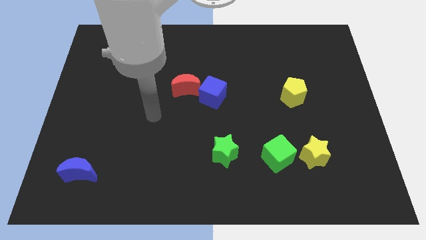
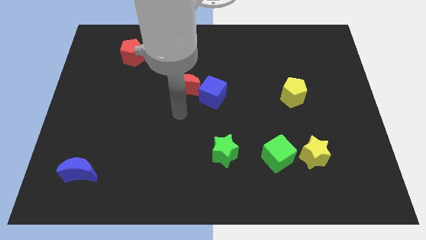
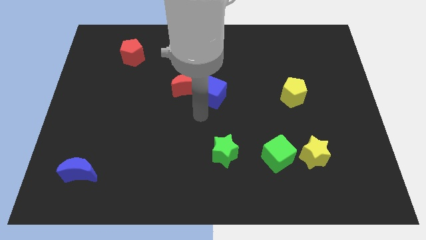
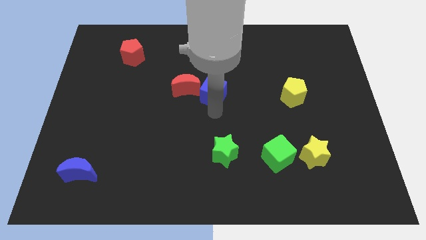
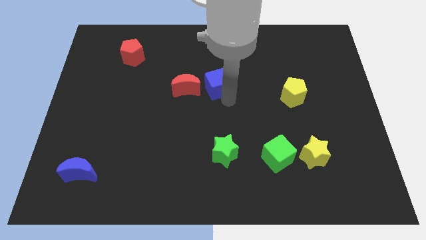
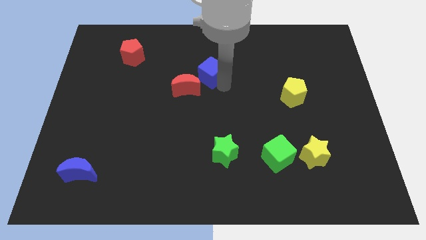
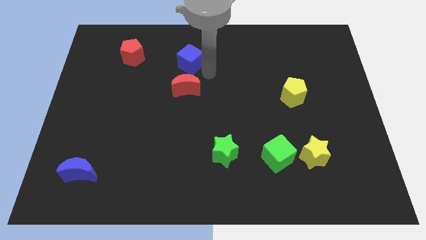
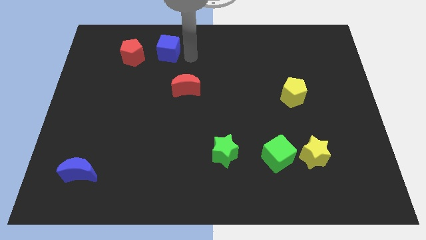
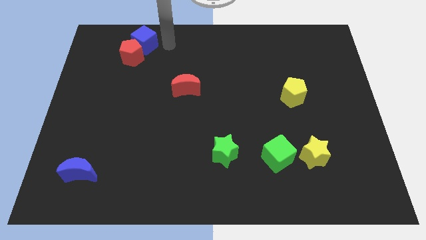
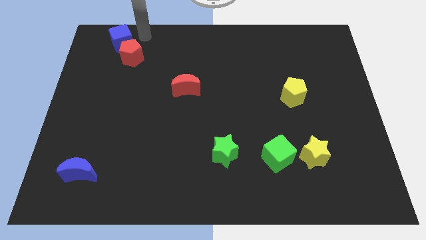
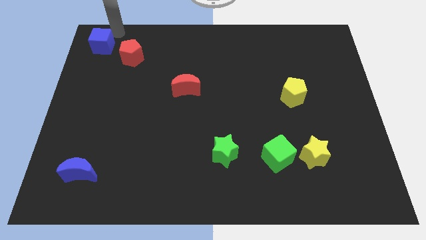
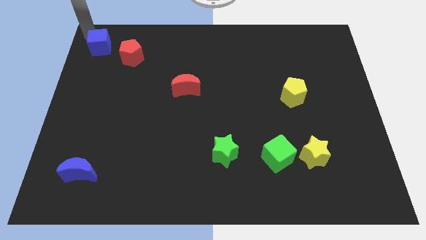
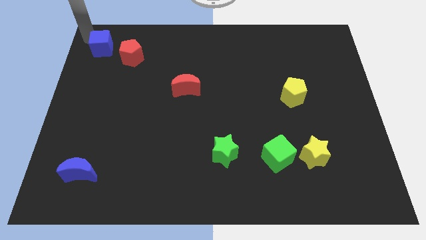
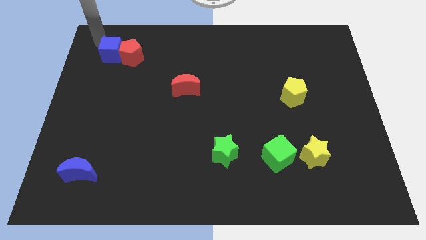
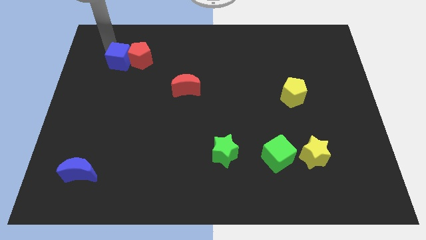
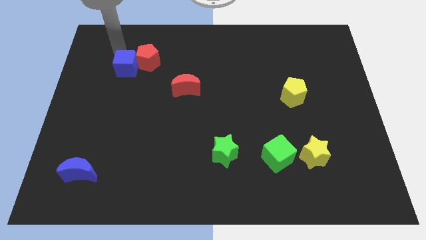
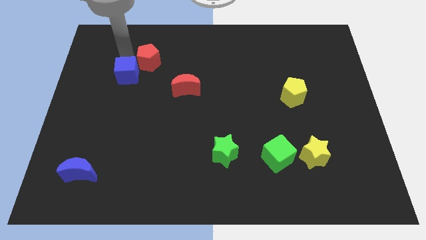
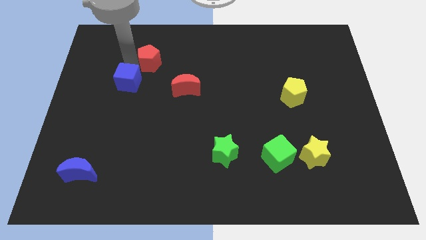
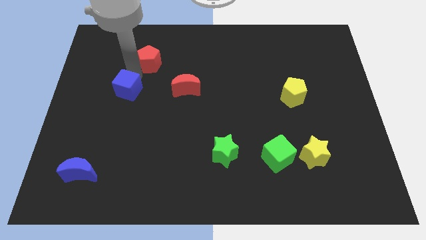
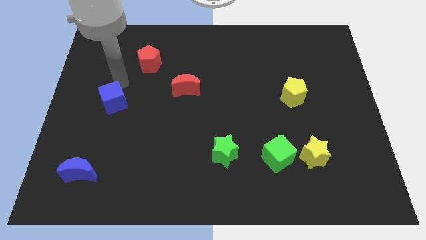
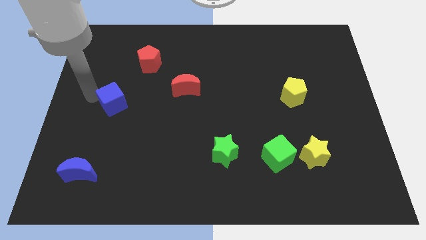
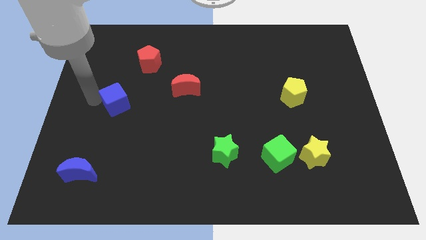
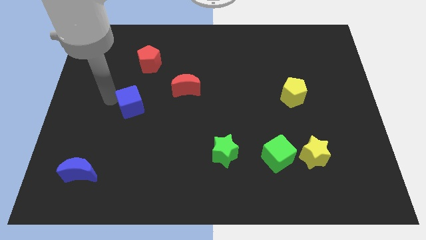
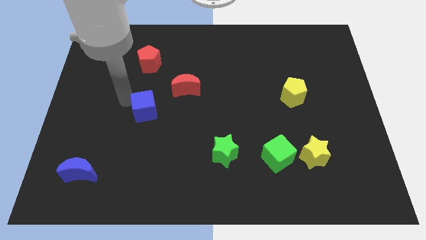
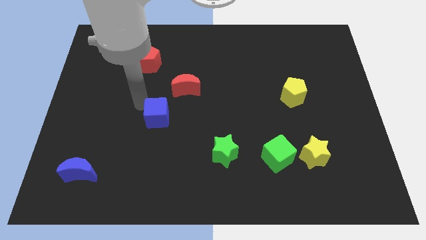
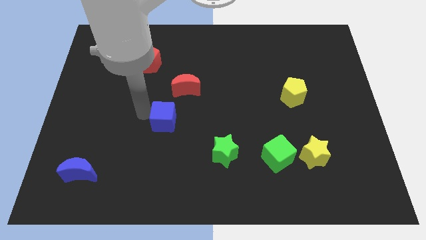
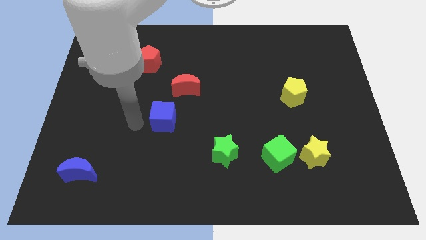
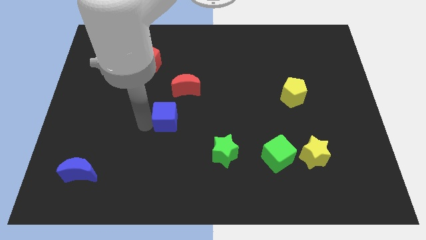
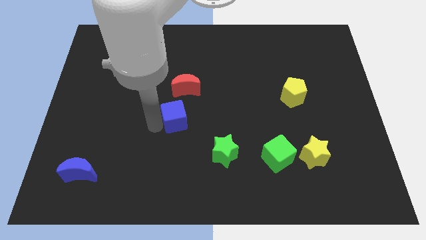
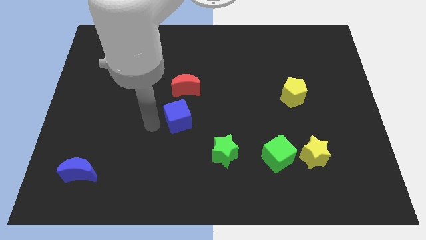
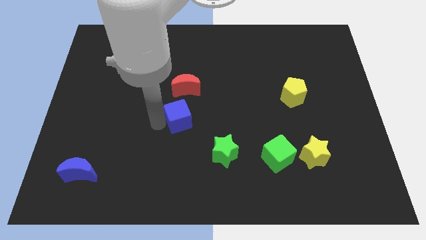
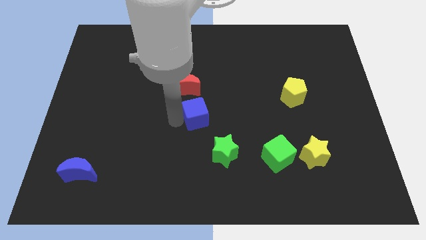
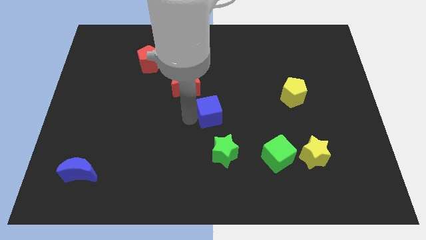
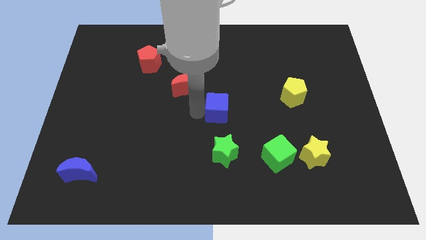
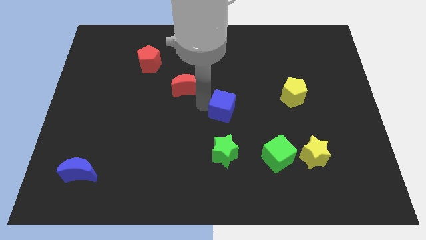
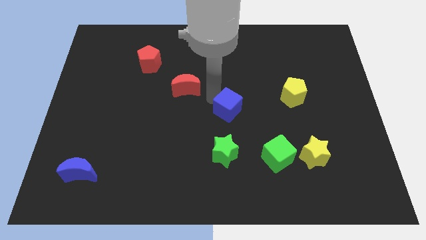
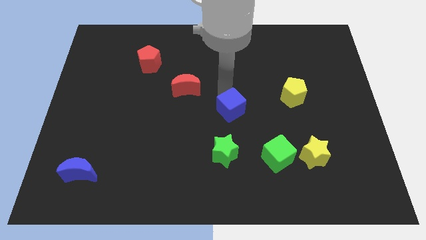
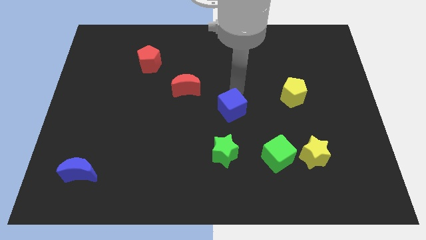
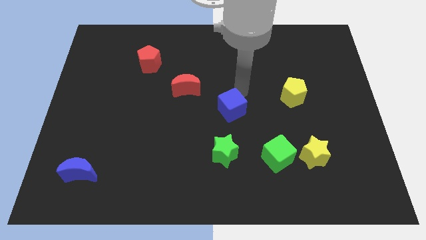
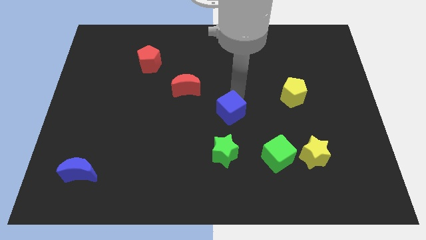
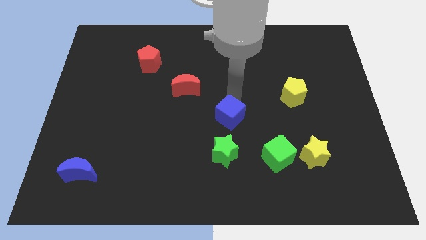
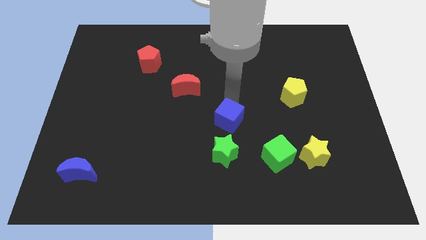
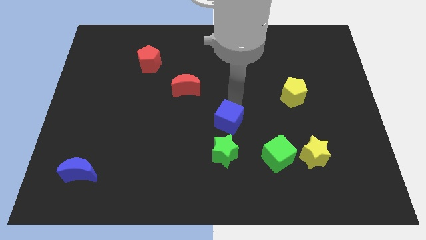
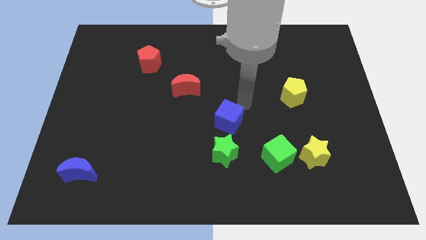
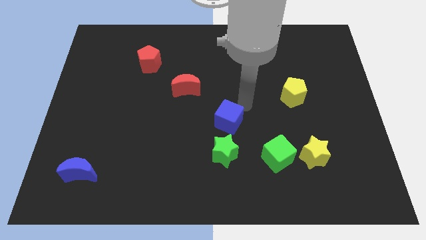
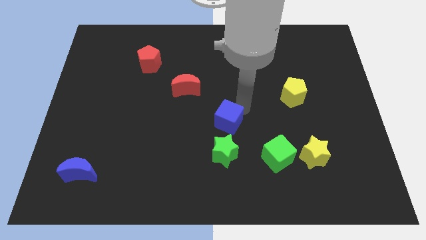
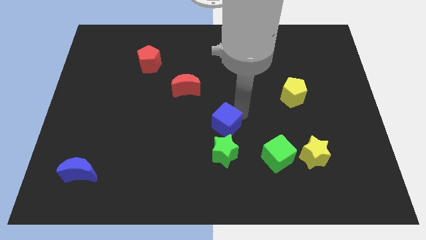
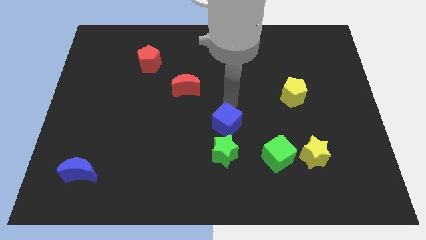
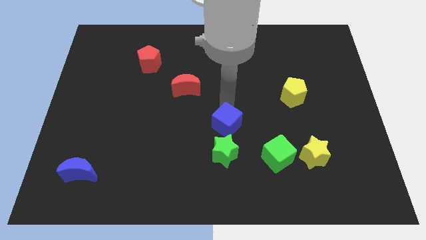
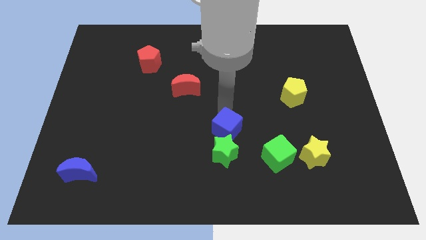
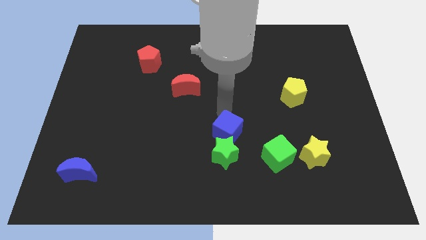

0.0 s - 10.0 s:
move the blue cube next to the green star

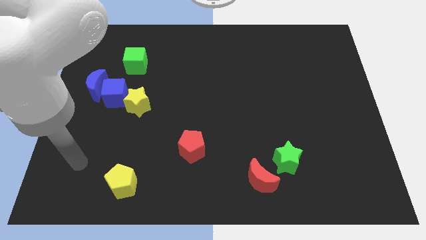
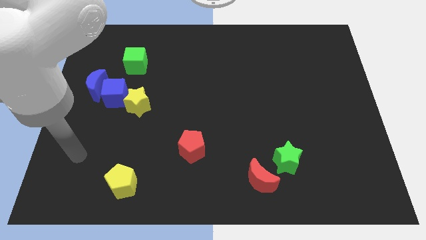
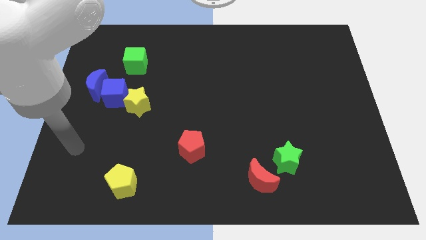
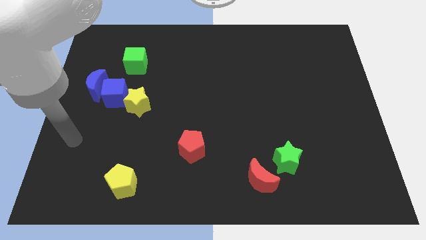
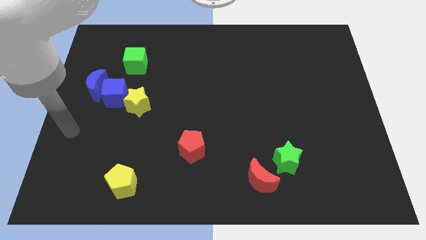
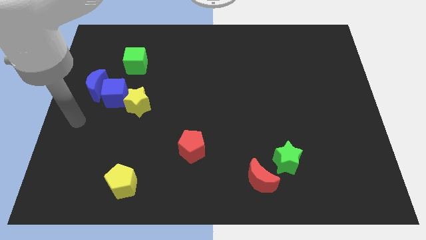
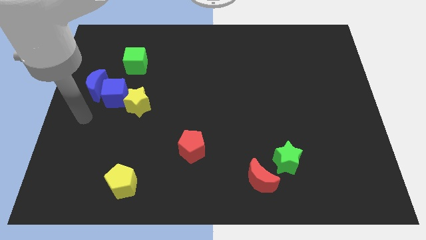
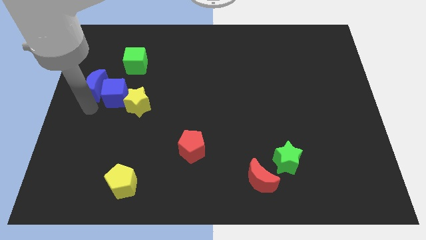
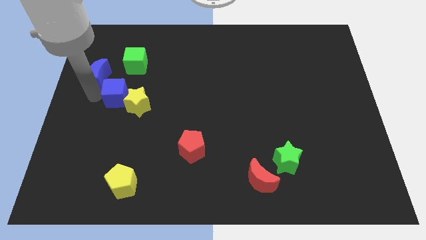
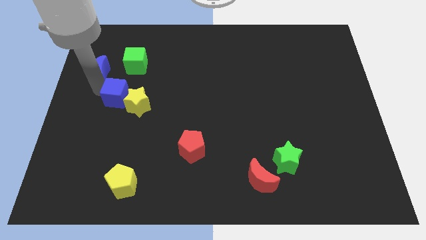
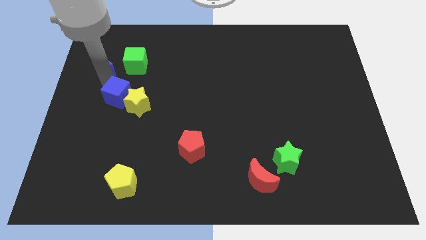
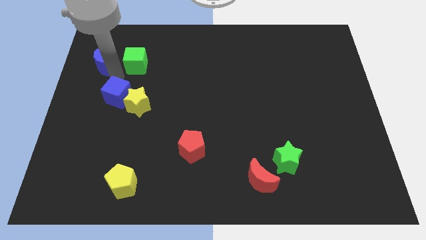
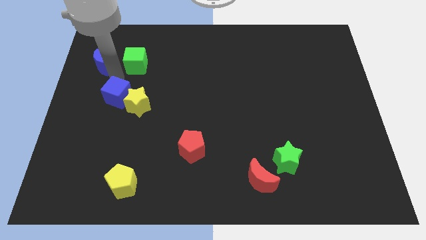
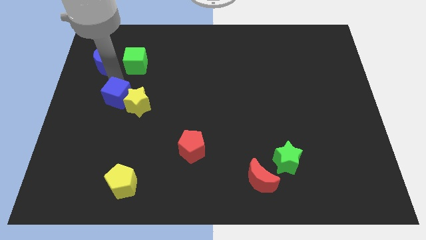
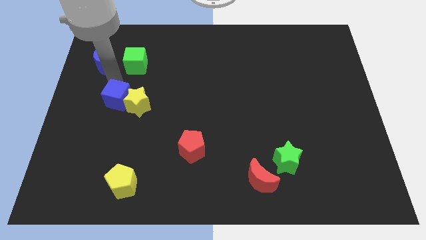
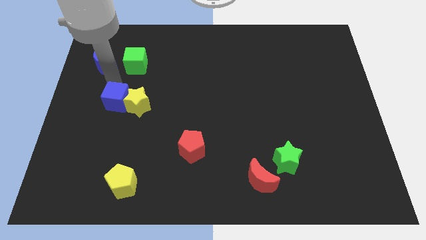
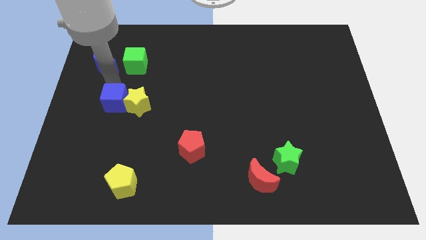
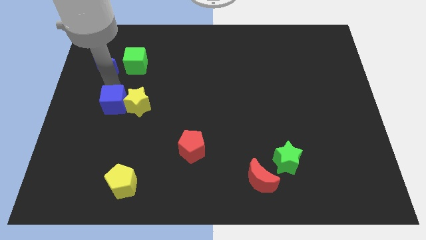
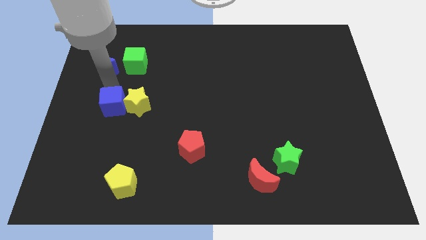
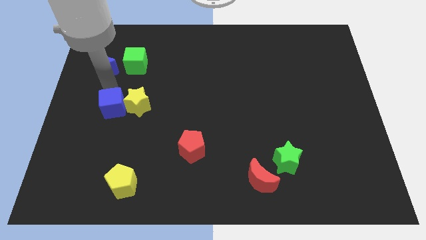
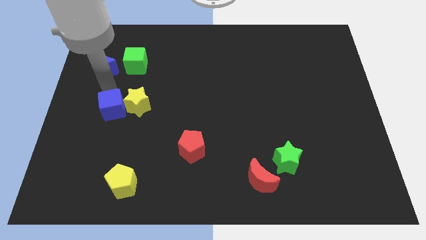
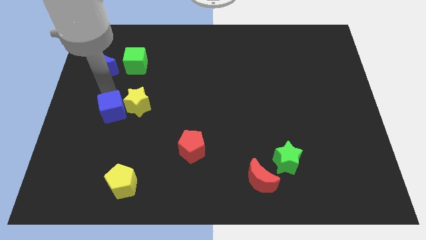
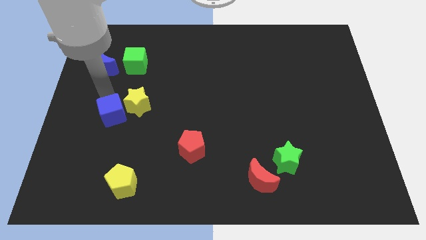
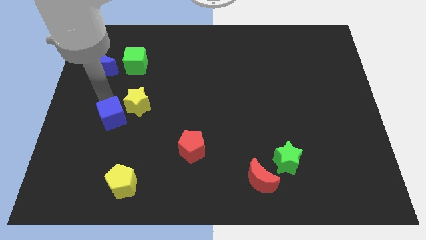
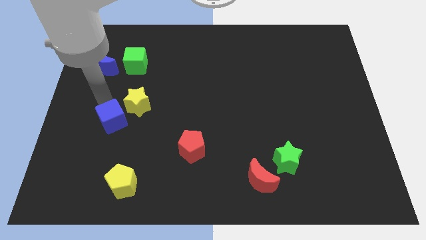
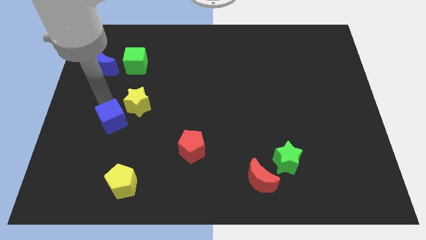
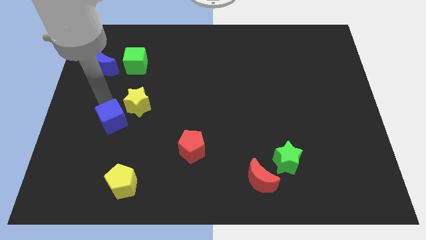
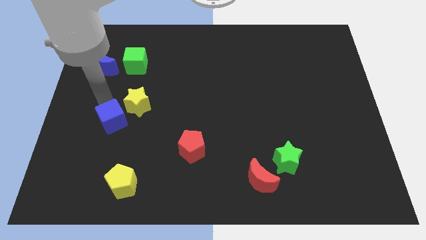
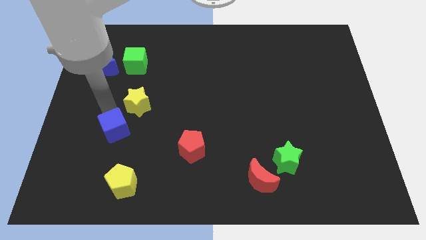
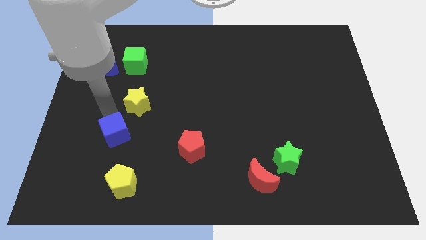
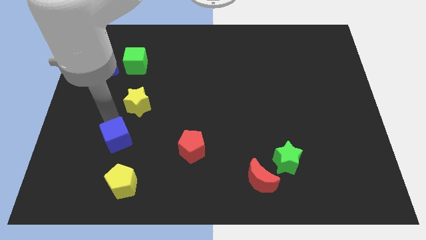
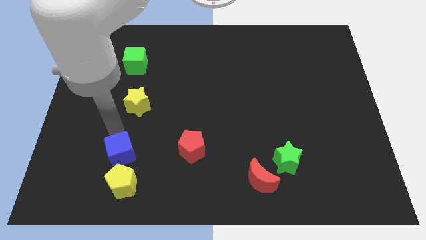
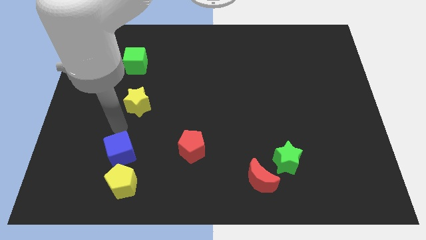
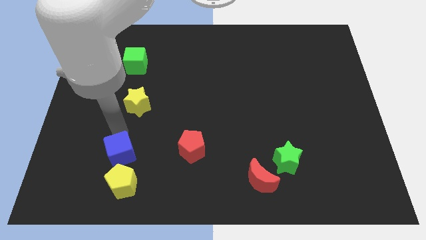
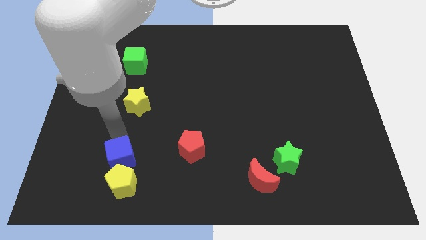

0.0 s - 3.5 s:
move the blue cube towards the yellow pentagon
